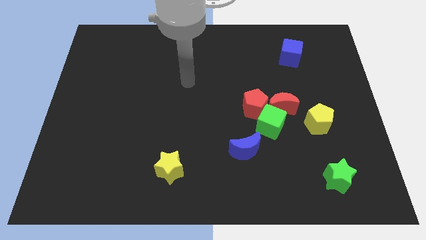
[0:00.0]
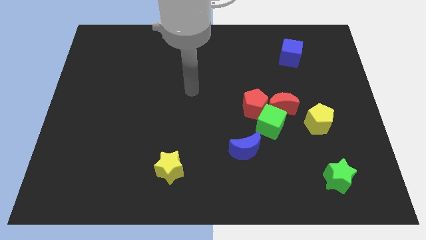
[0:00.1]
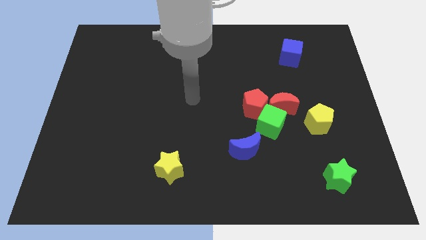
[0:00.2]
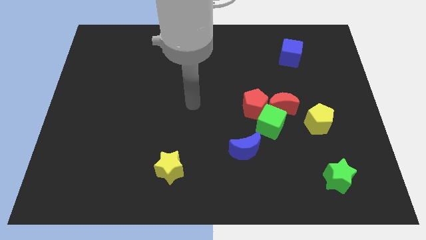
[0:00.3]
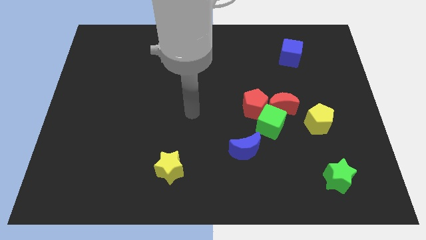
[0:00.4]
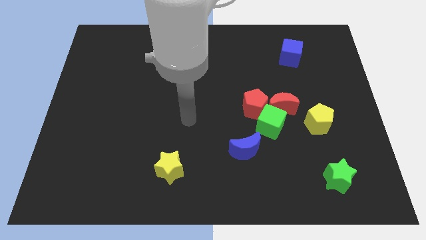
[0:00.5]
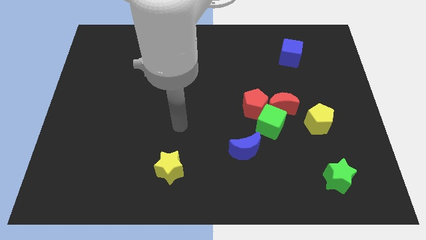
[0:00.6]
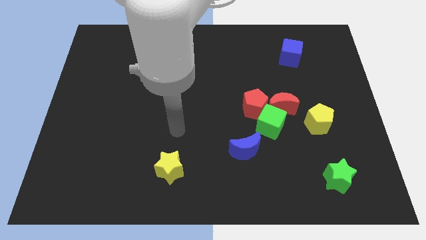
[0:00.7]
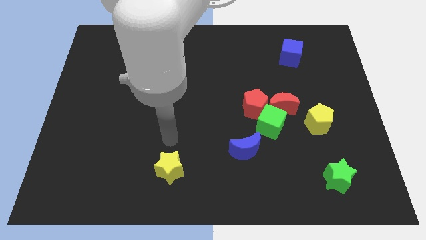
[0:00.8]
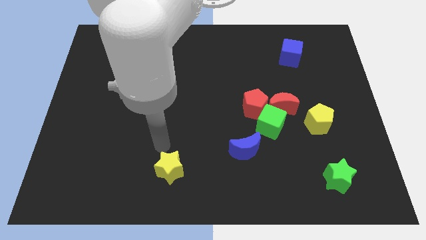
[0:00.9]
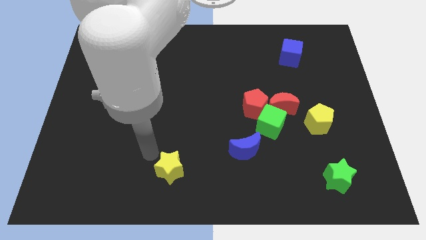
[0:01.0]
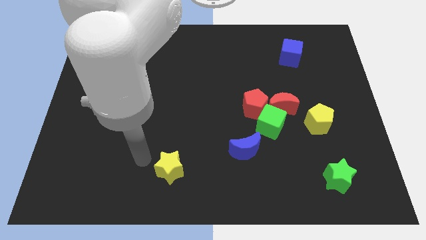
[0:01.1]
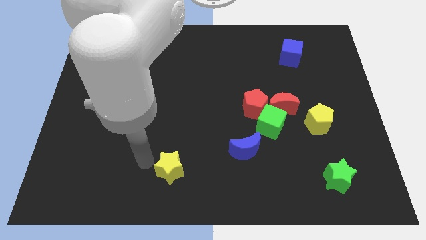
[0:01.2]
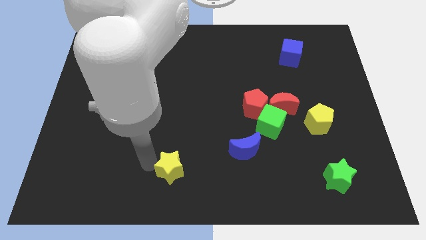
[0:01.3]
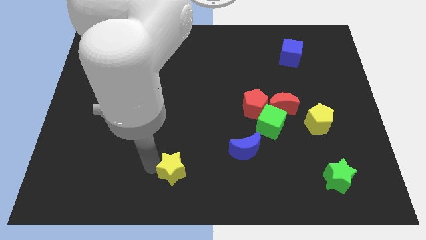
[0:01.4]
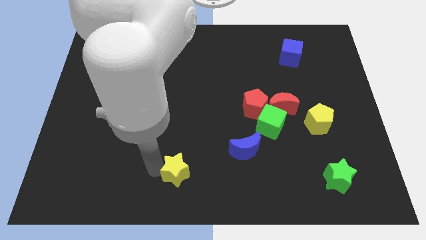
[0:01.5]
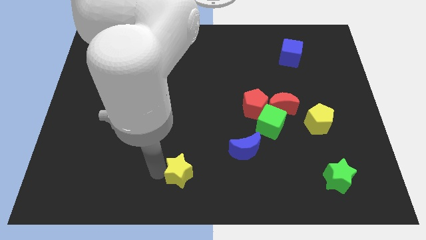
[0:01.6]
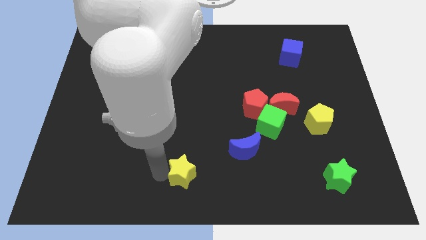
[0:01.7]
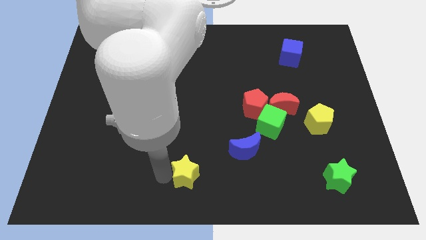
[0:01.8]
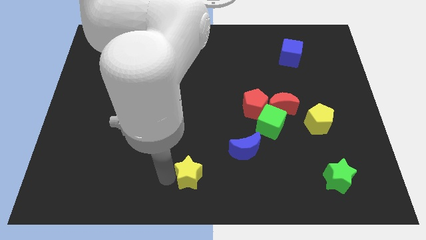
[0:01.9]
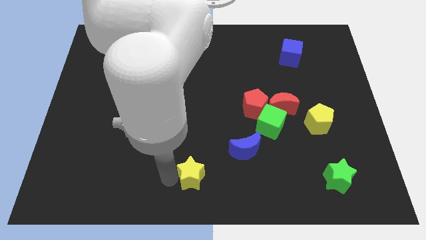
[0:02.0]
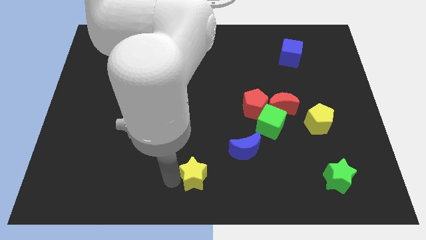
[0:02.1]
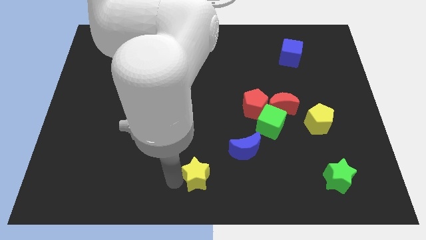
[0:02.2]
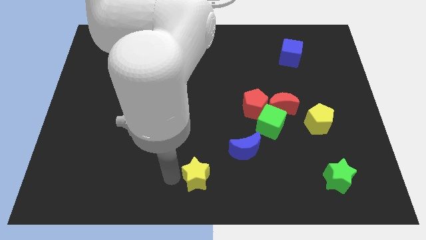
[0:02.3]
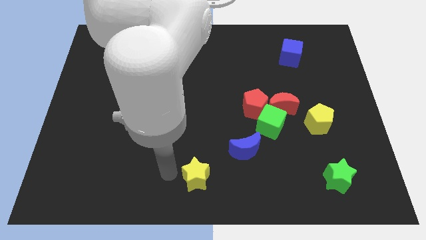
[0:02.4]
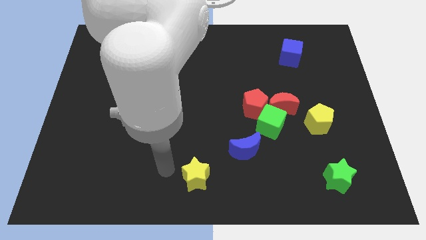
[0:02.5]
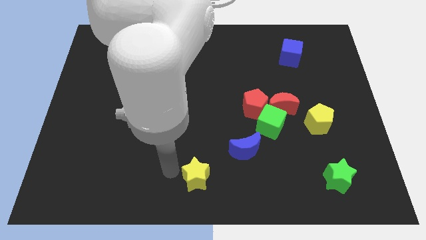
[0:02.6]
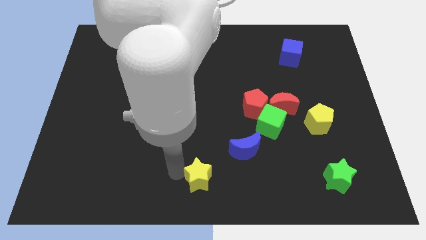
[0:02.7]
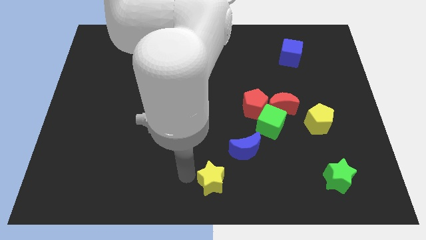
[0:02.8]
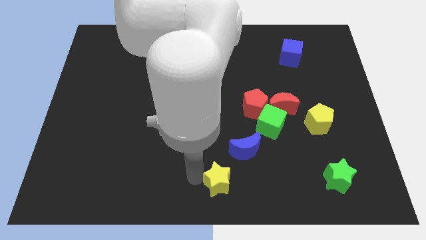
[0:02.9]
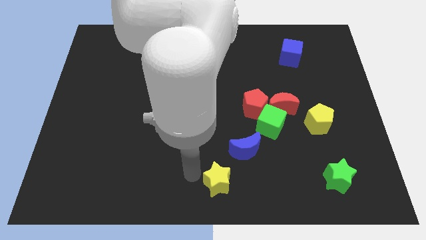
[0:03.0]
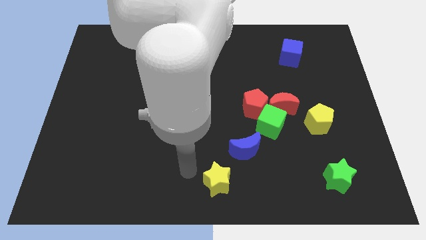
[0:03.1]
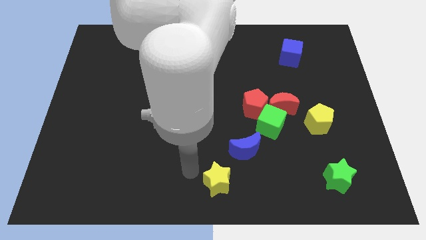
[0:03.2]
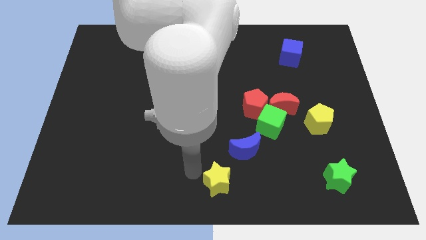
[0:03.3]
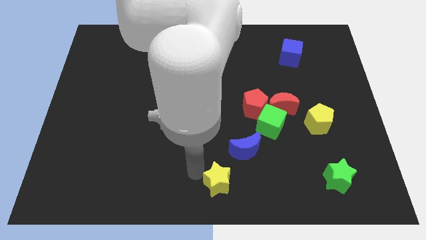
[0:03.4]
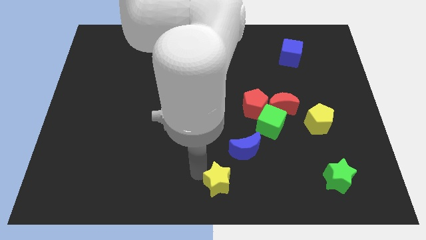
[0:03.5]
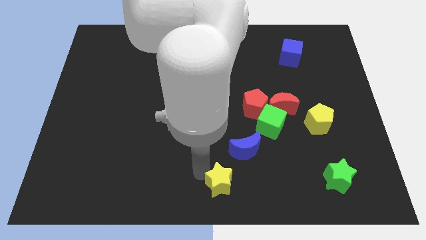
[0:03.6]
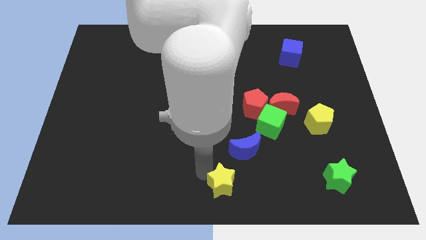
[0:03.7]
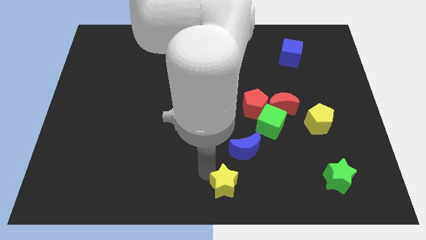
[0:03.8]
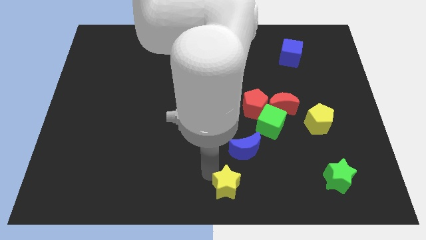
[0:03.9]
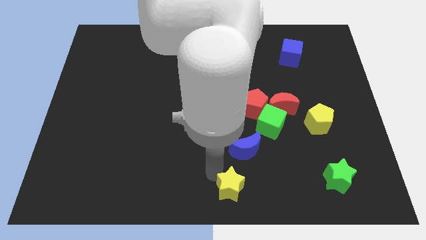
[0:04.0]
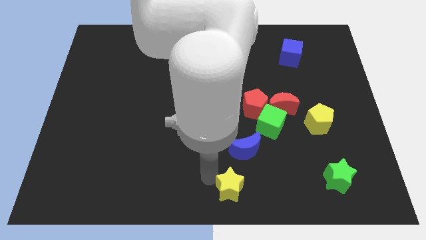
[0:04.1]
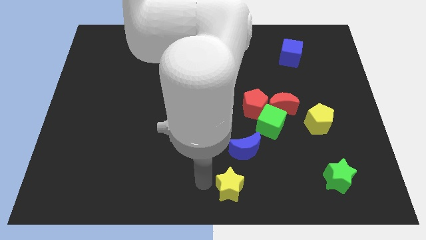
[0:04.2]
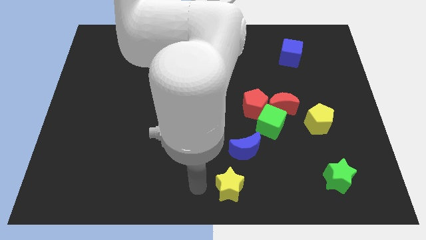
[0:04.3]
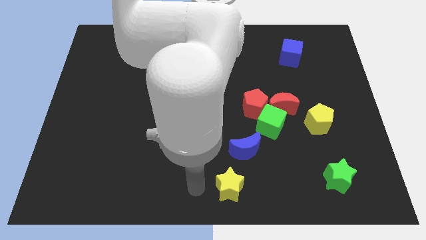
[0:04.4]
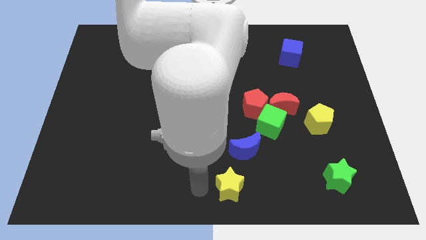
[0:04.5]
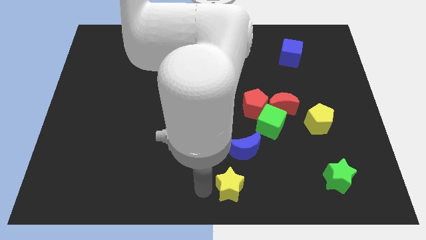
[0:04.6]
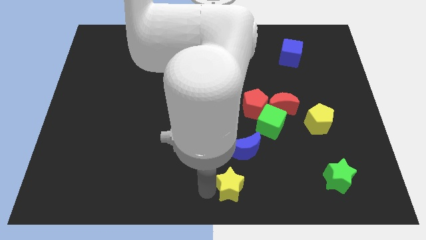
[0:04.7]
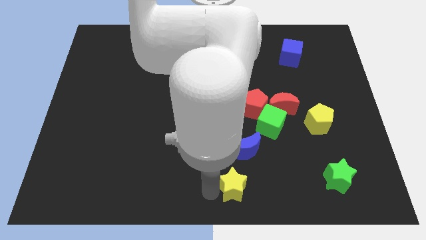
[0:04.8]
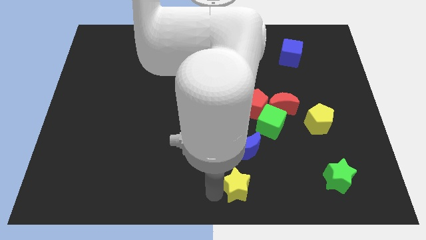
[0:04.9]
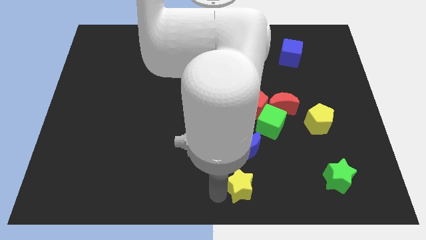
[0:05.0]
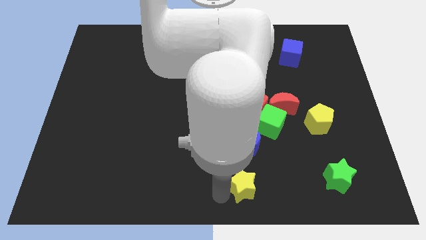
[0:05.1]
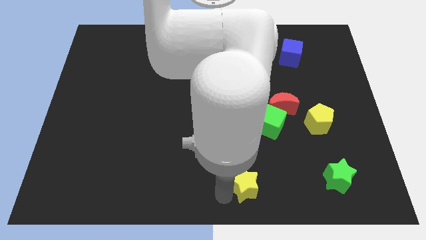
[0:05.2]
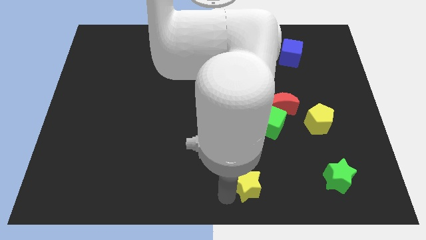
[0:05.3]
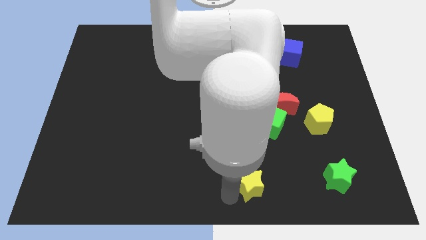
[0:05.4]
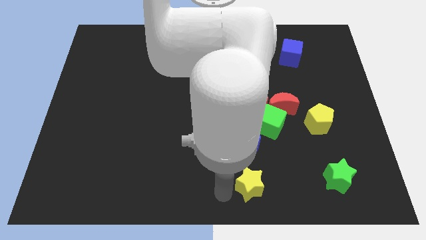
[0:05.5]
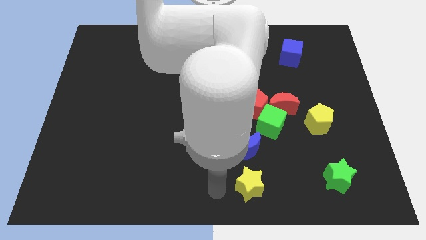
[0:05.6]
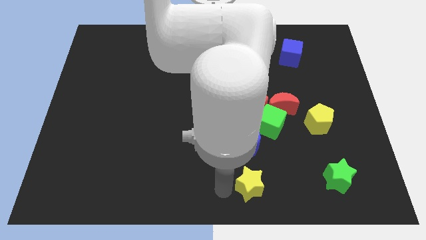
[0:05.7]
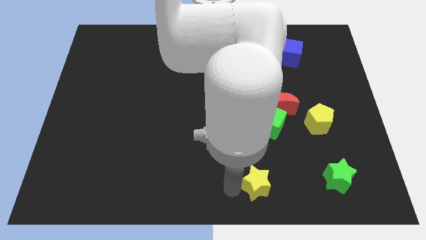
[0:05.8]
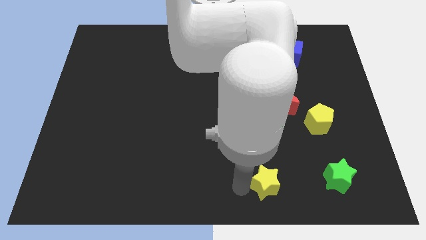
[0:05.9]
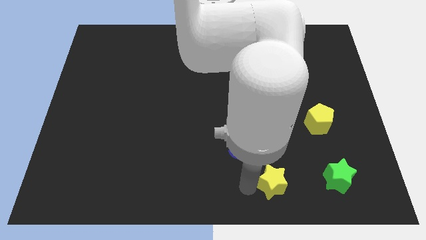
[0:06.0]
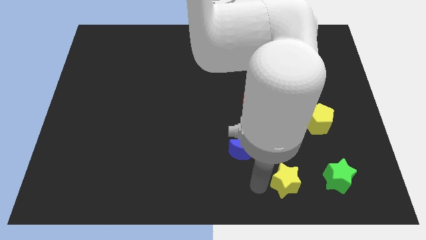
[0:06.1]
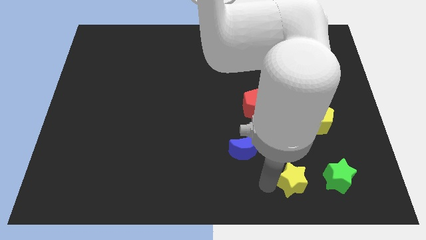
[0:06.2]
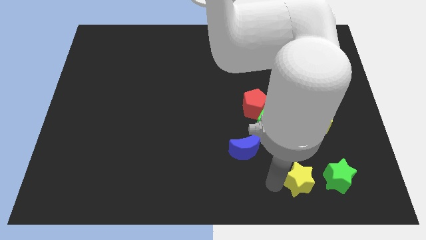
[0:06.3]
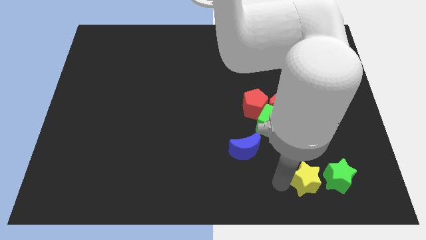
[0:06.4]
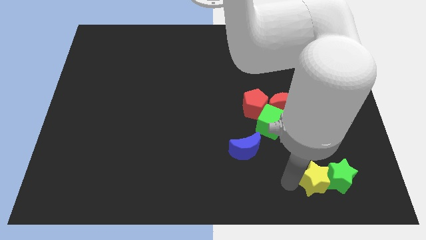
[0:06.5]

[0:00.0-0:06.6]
slide the yellow star towards the green star
